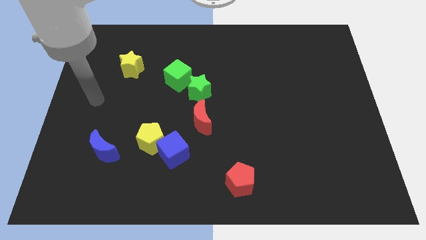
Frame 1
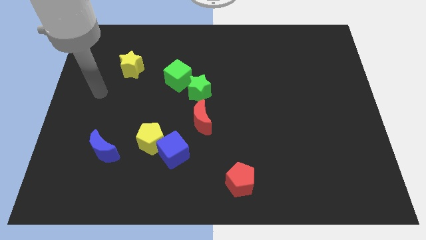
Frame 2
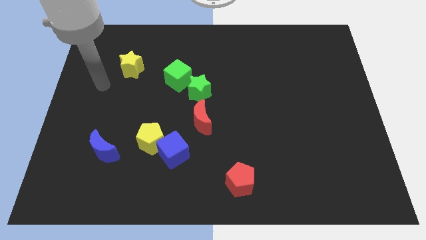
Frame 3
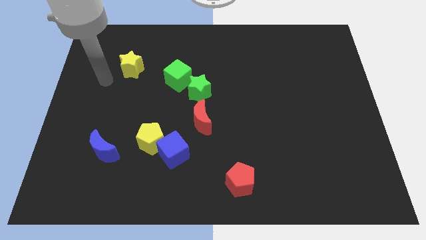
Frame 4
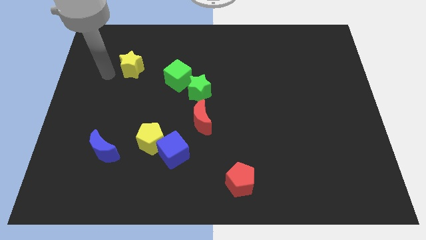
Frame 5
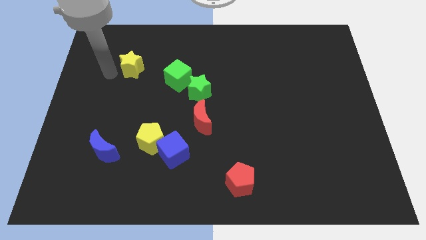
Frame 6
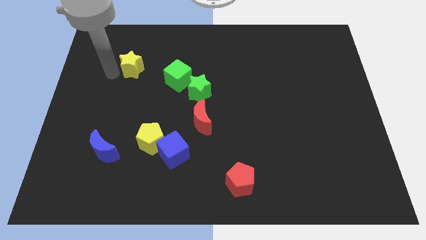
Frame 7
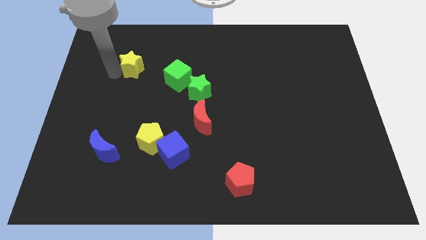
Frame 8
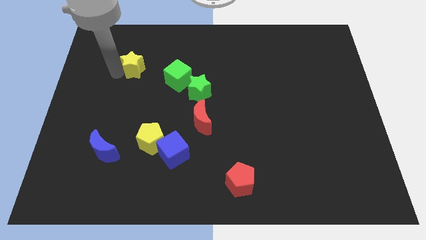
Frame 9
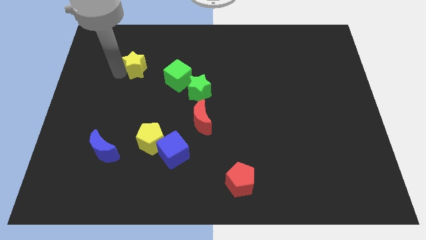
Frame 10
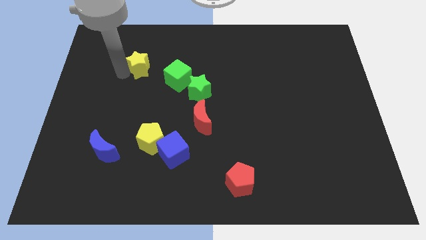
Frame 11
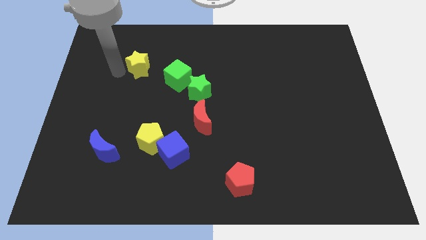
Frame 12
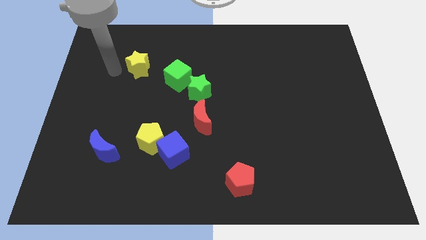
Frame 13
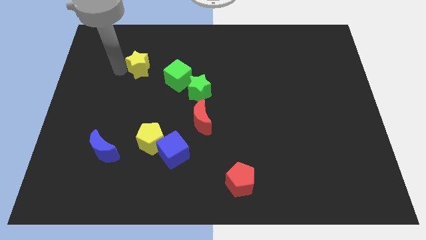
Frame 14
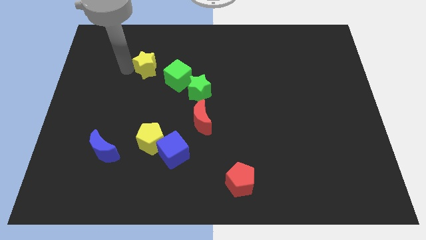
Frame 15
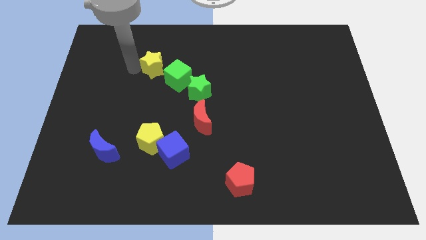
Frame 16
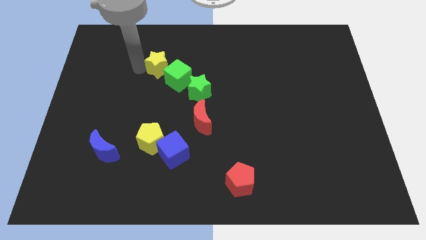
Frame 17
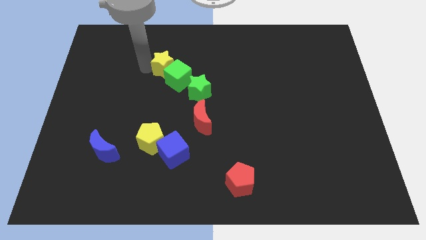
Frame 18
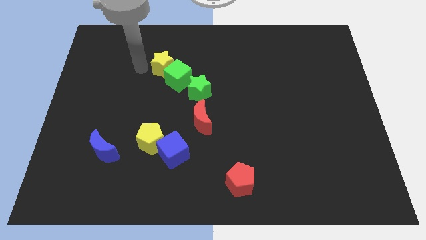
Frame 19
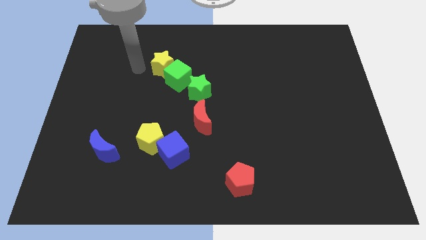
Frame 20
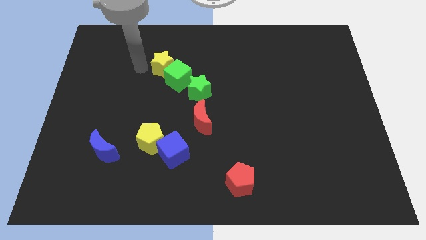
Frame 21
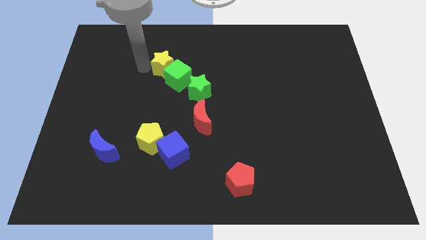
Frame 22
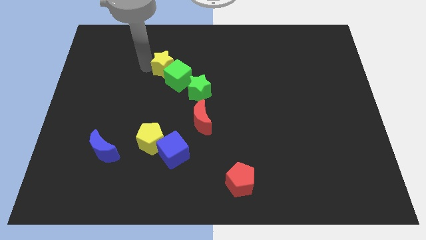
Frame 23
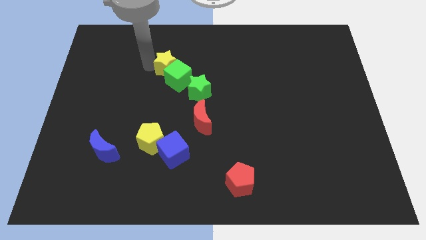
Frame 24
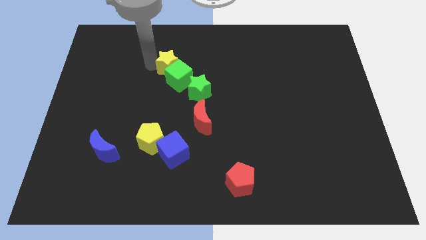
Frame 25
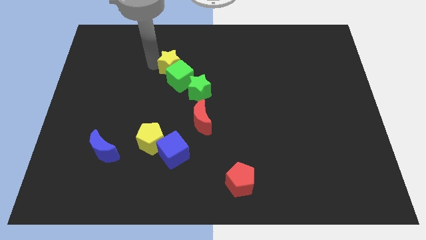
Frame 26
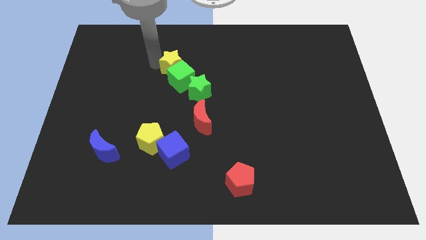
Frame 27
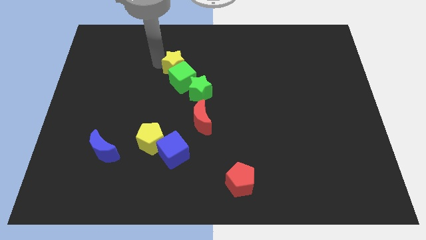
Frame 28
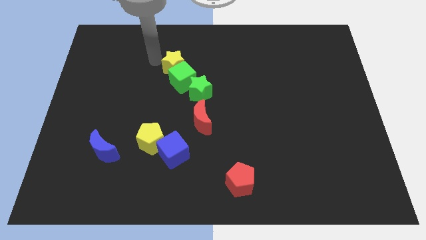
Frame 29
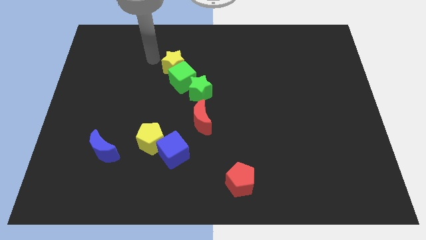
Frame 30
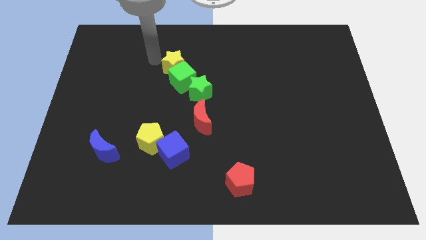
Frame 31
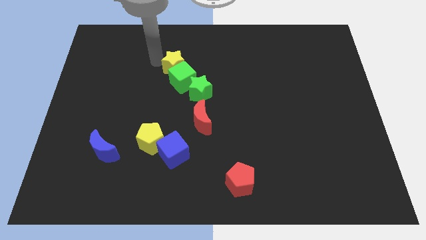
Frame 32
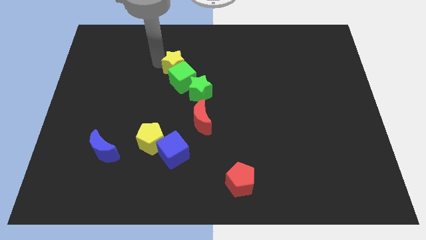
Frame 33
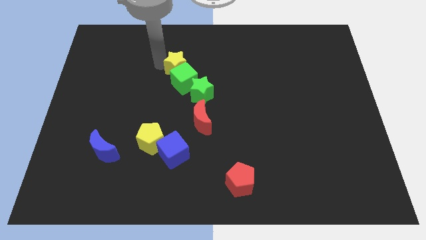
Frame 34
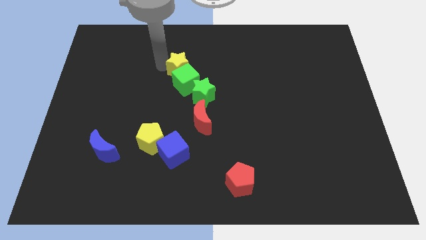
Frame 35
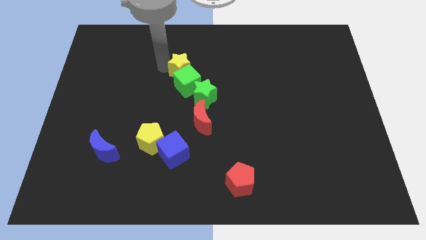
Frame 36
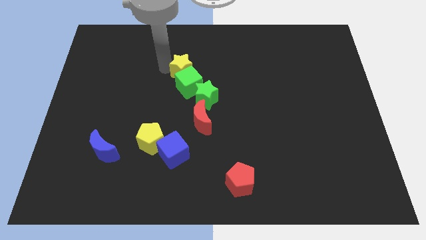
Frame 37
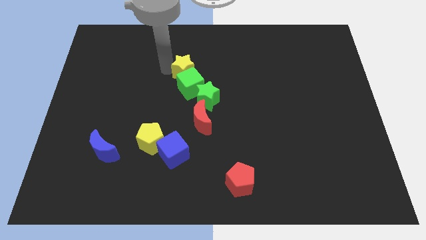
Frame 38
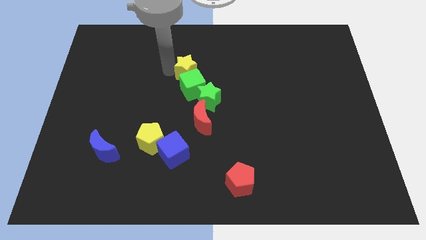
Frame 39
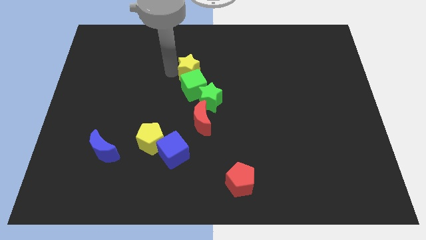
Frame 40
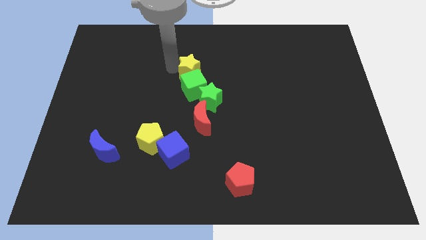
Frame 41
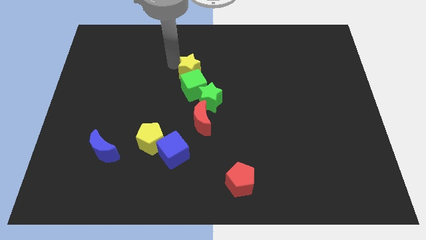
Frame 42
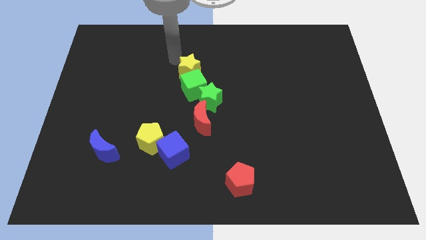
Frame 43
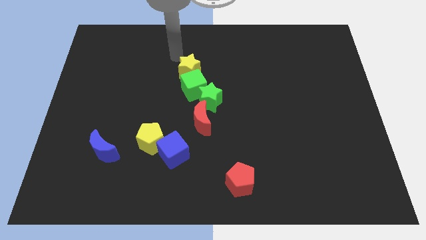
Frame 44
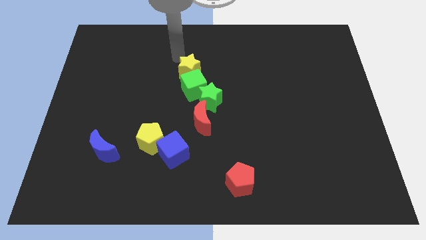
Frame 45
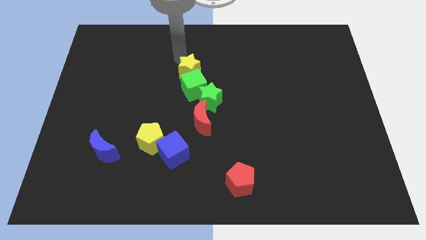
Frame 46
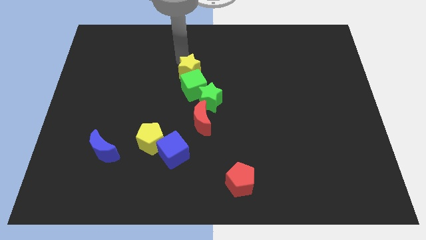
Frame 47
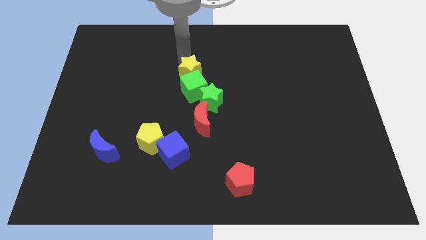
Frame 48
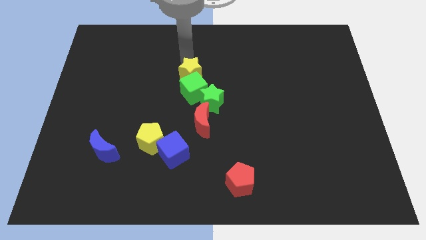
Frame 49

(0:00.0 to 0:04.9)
slide the yellow star to the top of the red moon

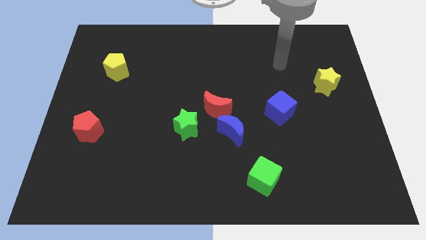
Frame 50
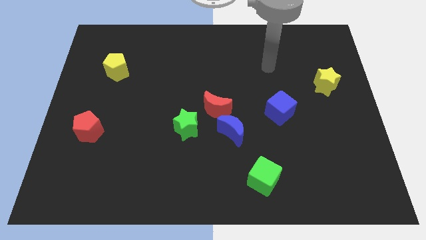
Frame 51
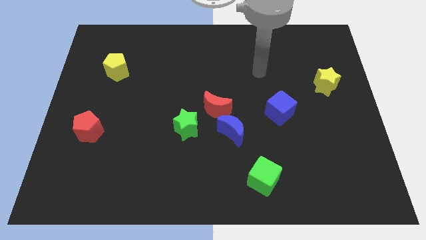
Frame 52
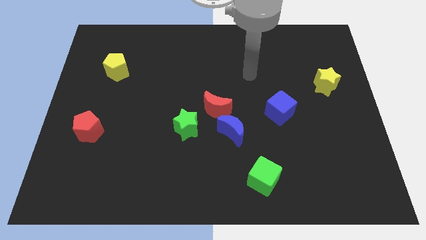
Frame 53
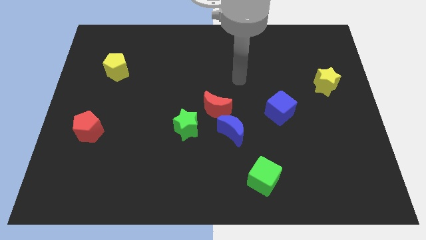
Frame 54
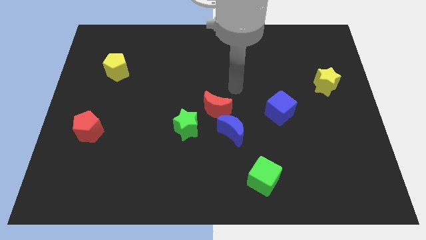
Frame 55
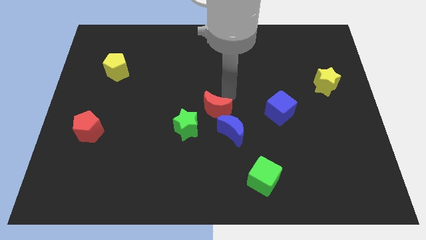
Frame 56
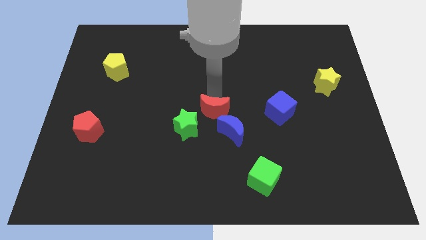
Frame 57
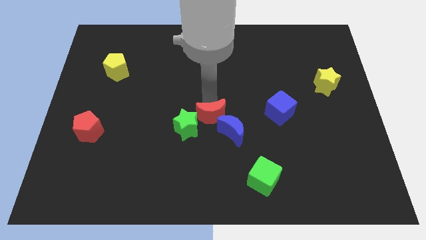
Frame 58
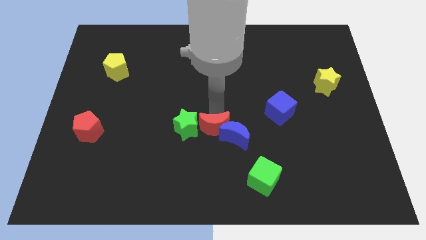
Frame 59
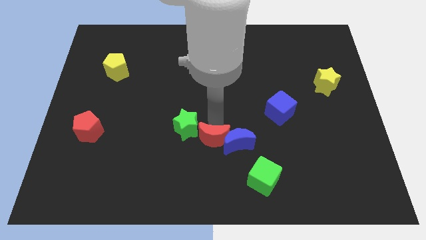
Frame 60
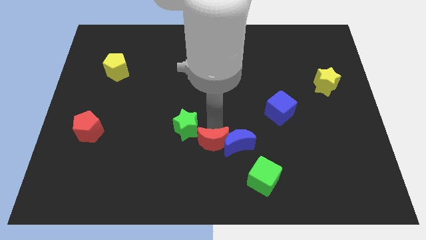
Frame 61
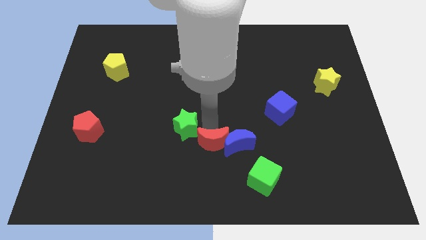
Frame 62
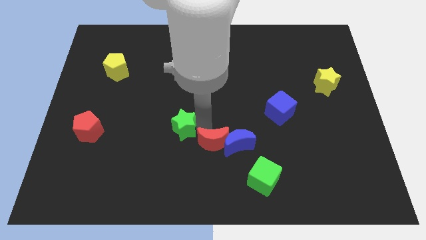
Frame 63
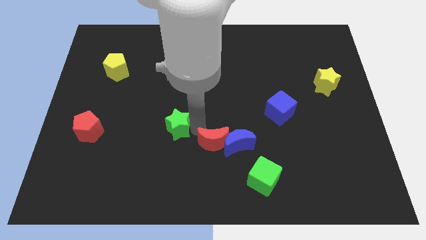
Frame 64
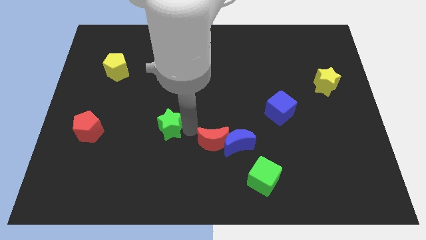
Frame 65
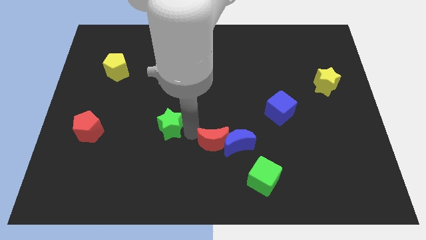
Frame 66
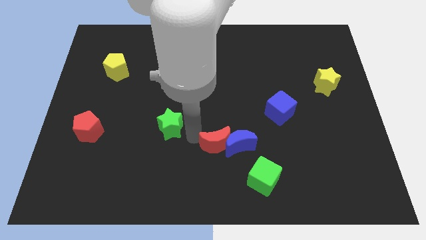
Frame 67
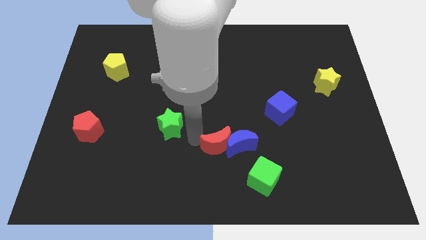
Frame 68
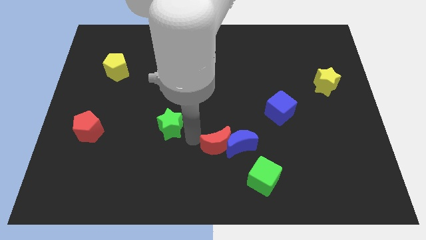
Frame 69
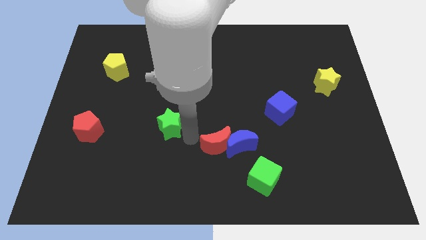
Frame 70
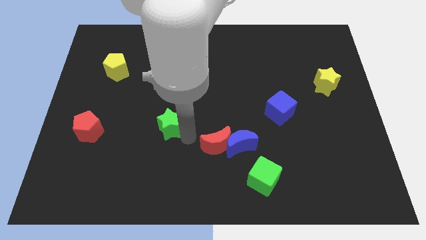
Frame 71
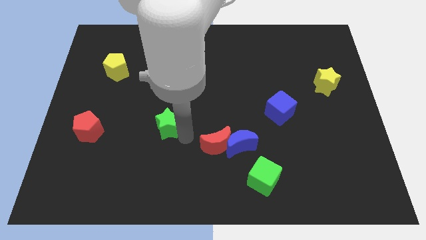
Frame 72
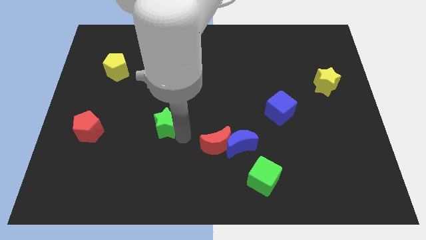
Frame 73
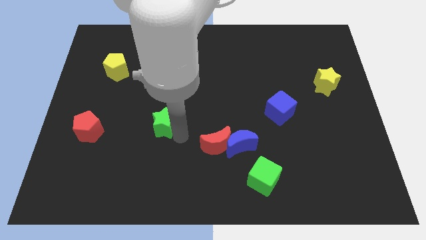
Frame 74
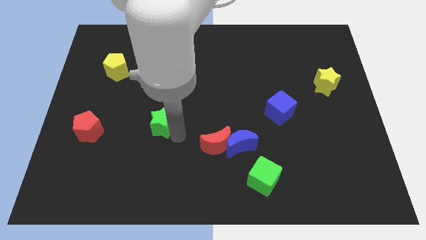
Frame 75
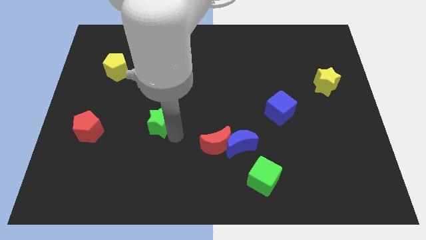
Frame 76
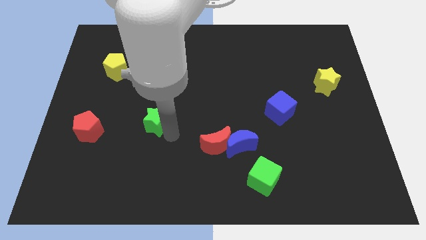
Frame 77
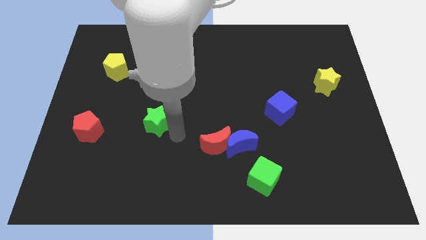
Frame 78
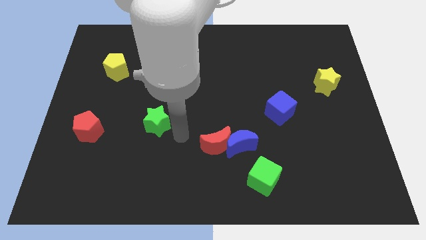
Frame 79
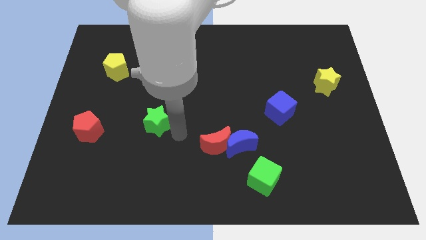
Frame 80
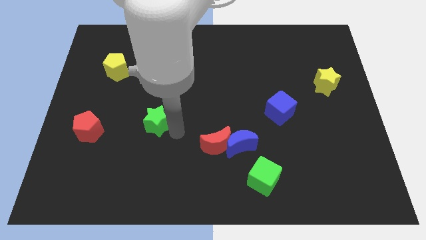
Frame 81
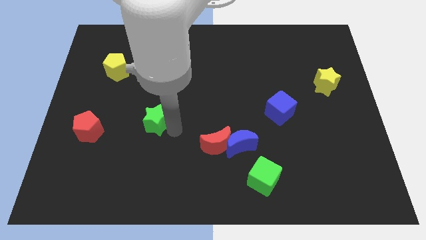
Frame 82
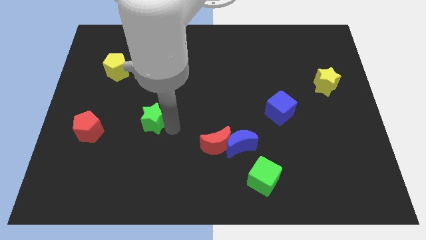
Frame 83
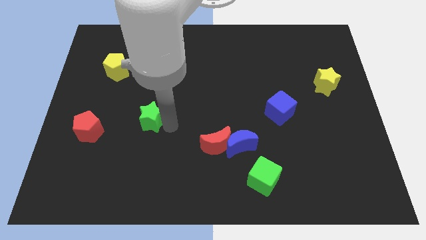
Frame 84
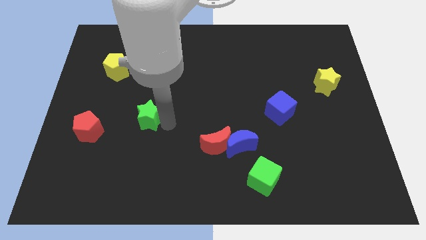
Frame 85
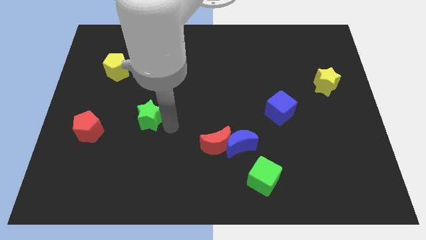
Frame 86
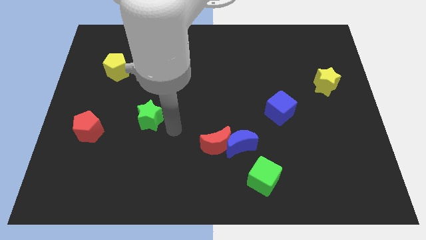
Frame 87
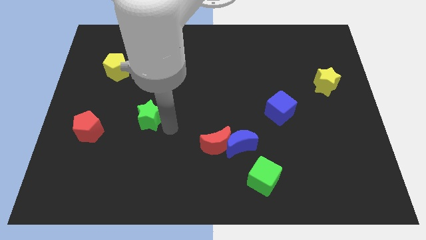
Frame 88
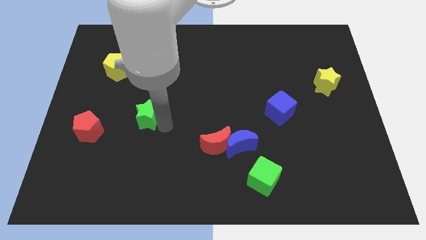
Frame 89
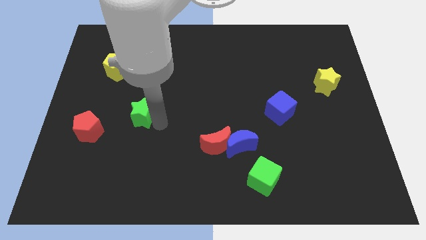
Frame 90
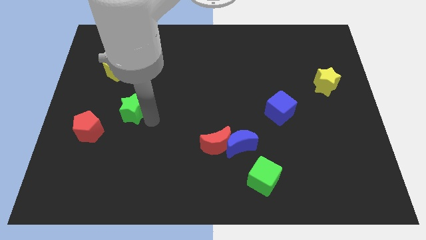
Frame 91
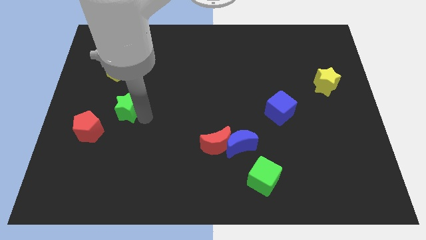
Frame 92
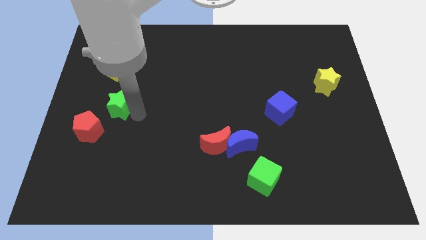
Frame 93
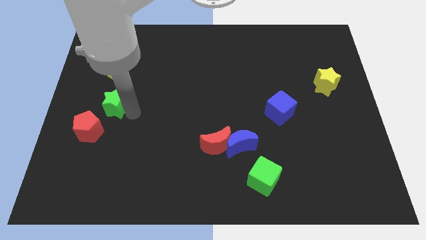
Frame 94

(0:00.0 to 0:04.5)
slide the green star above the red pentagon
